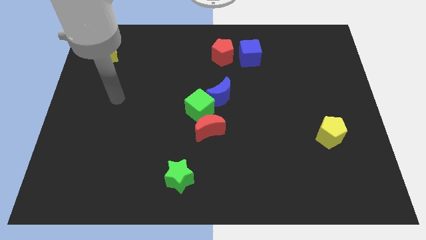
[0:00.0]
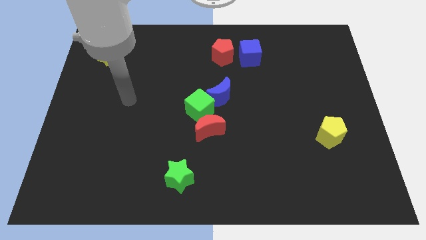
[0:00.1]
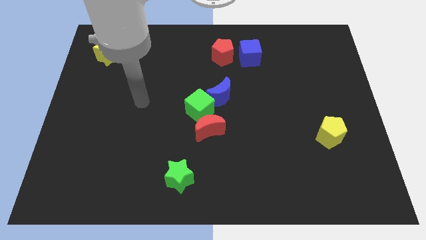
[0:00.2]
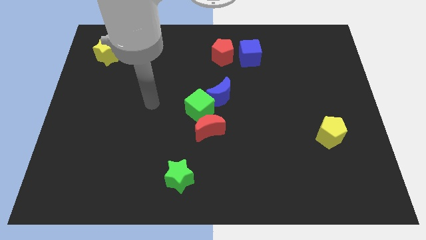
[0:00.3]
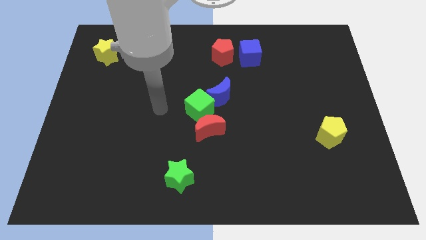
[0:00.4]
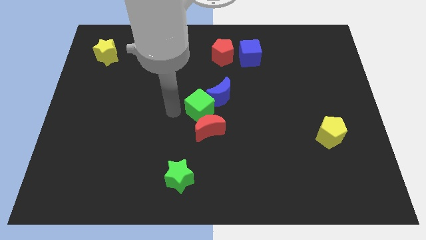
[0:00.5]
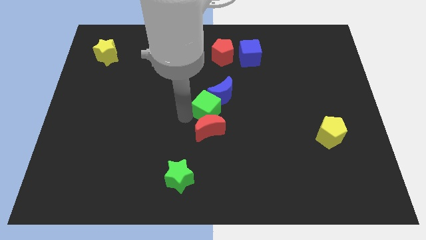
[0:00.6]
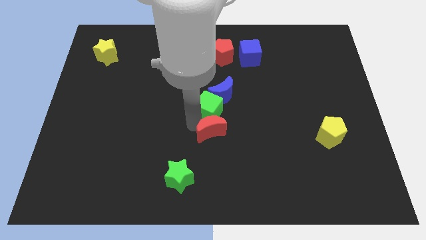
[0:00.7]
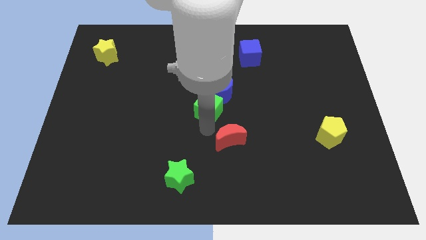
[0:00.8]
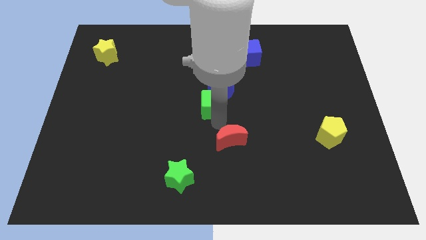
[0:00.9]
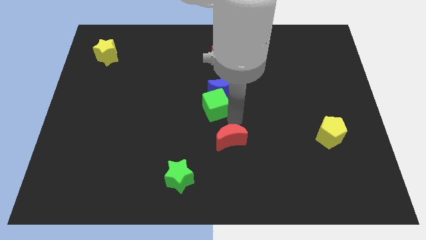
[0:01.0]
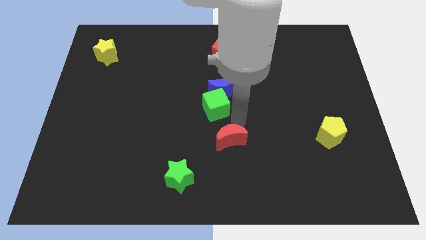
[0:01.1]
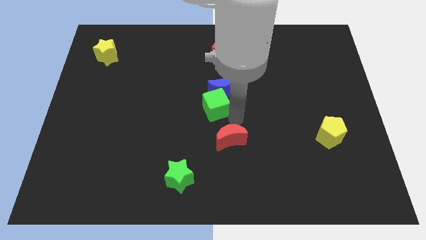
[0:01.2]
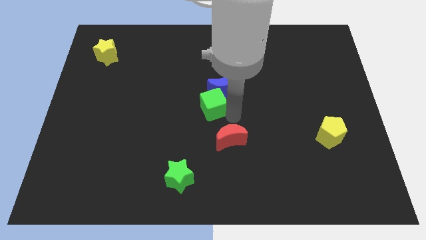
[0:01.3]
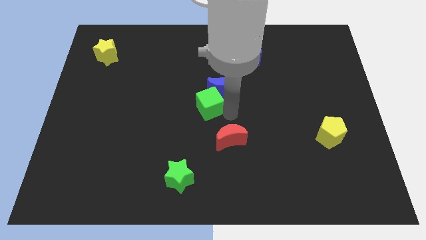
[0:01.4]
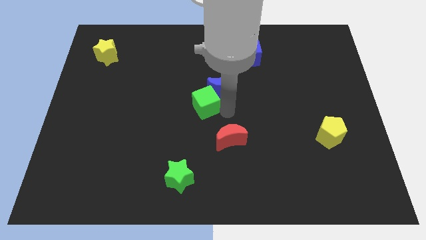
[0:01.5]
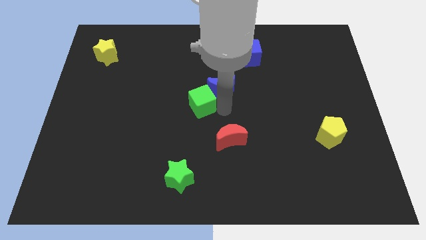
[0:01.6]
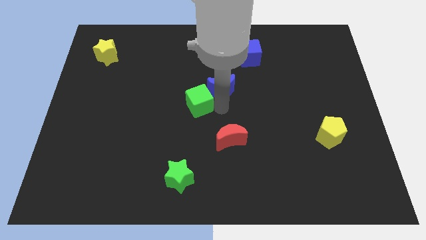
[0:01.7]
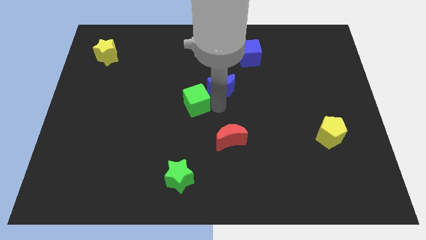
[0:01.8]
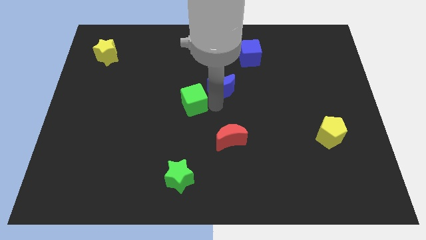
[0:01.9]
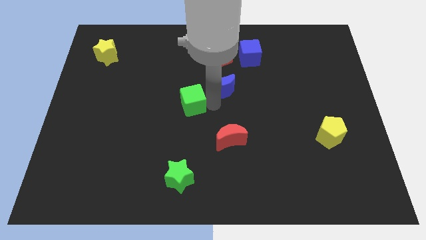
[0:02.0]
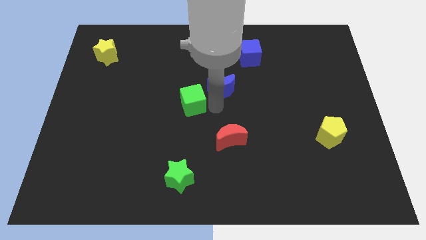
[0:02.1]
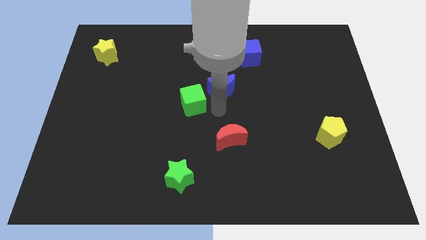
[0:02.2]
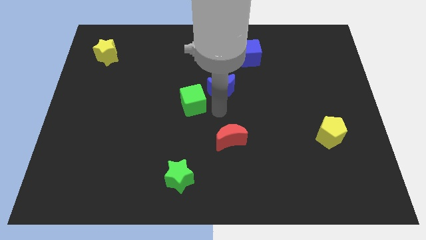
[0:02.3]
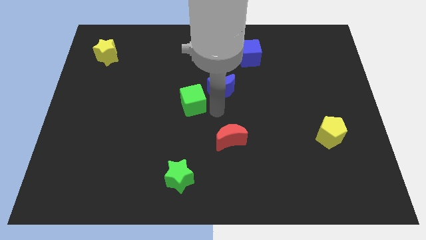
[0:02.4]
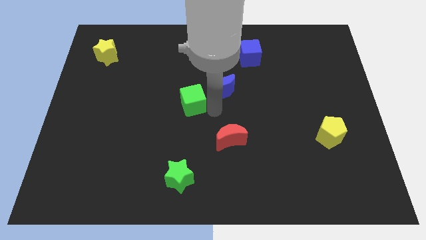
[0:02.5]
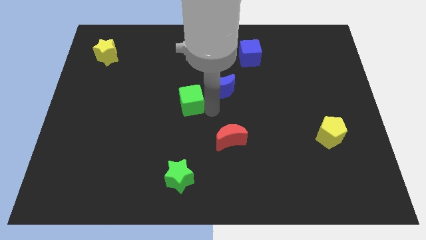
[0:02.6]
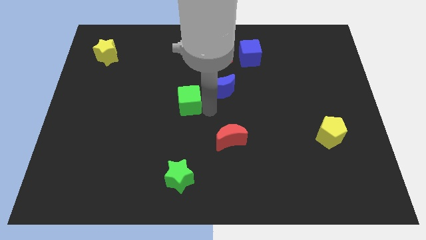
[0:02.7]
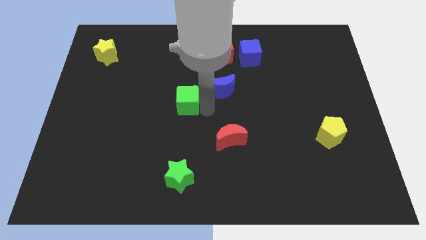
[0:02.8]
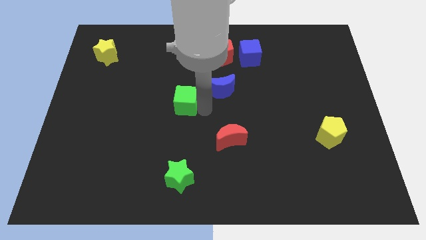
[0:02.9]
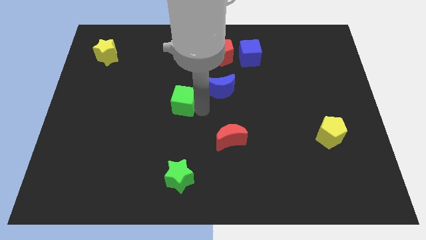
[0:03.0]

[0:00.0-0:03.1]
separate the green cube from the red moon and blue moon

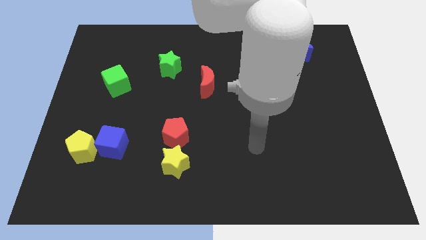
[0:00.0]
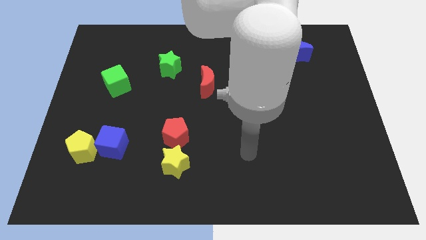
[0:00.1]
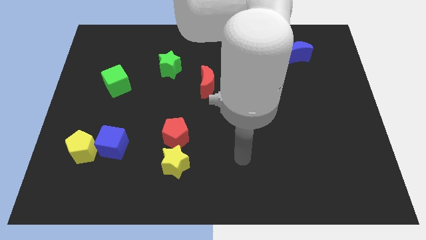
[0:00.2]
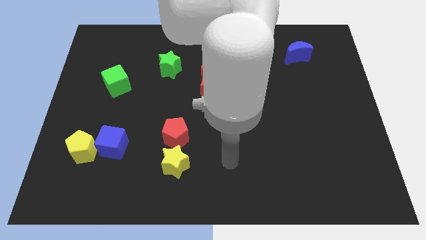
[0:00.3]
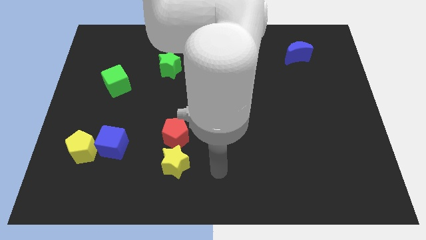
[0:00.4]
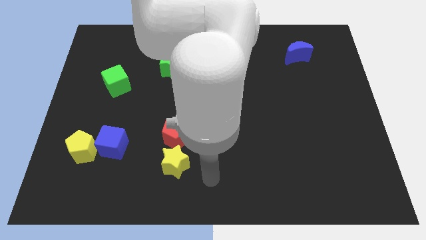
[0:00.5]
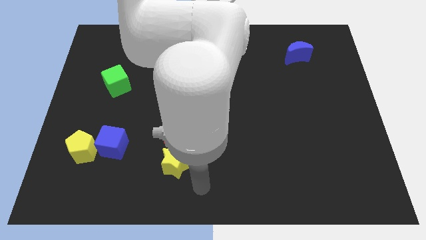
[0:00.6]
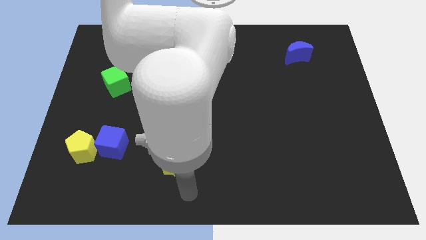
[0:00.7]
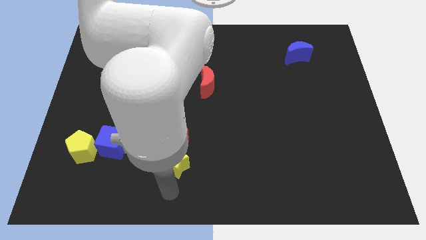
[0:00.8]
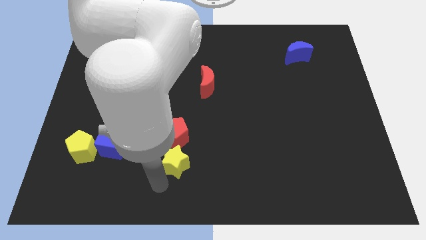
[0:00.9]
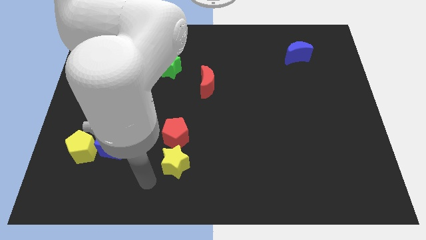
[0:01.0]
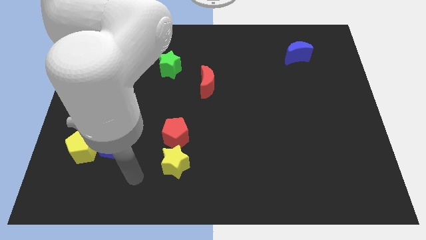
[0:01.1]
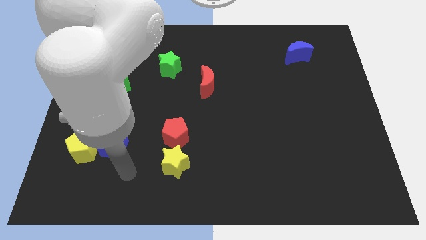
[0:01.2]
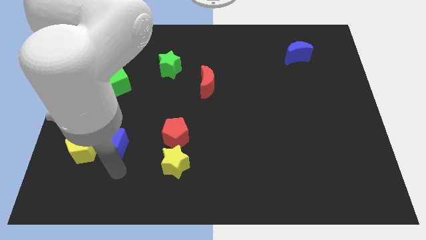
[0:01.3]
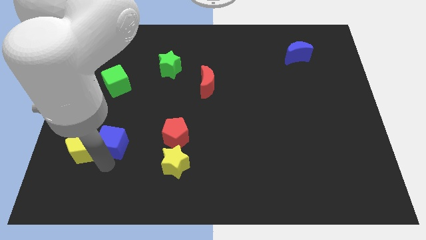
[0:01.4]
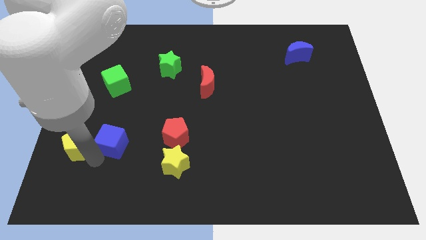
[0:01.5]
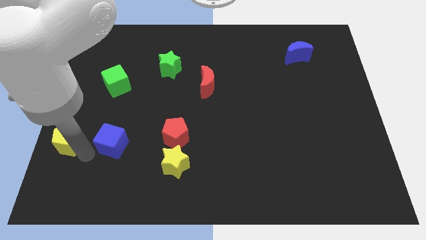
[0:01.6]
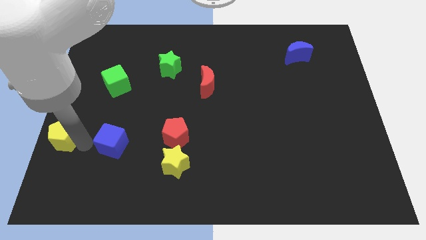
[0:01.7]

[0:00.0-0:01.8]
pull the blue cube apart from the yellow pentagon

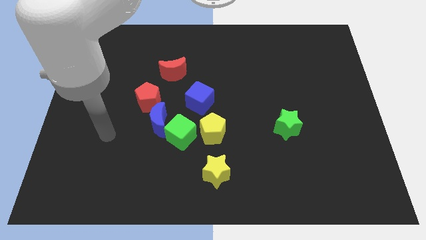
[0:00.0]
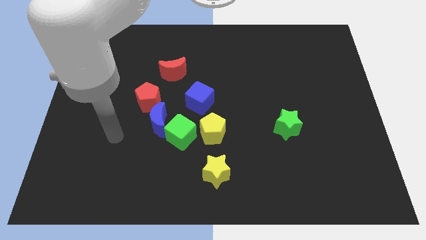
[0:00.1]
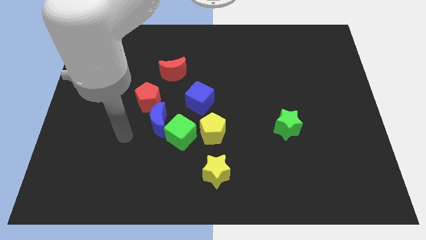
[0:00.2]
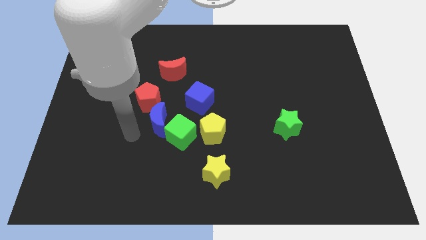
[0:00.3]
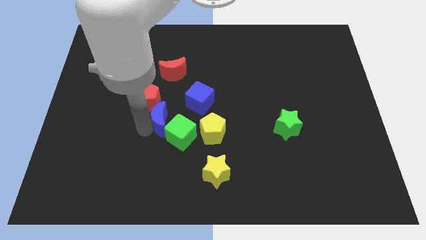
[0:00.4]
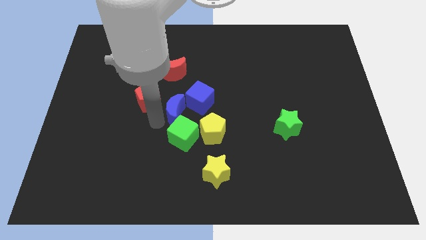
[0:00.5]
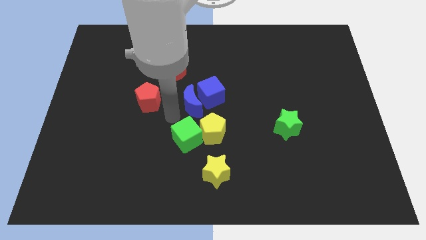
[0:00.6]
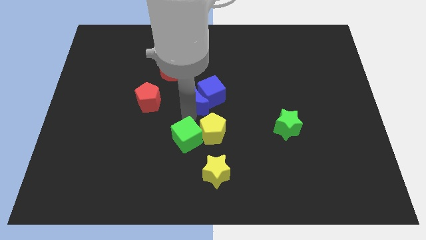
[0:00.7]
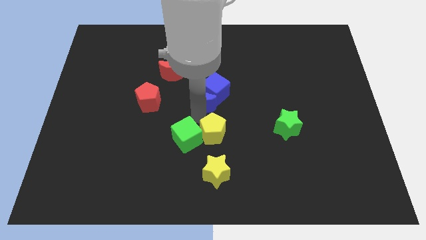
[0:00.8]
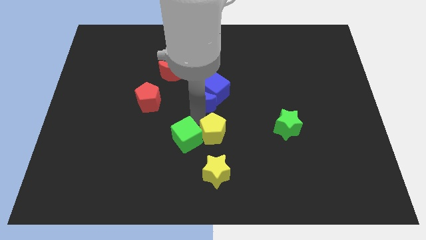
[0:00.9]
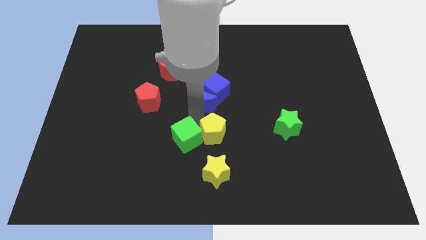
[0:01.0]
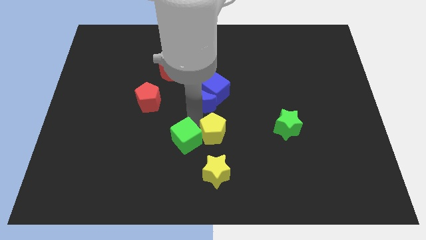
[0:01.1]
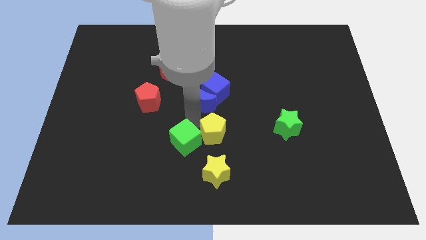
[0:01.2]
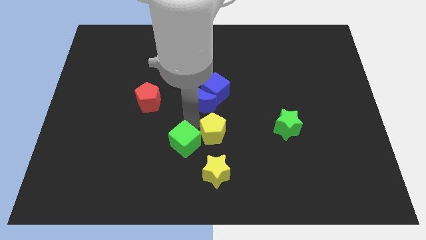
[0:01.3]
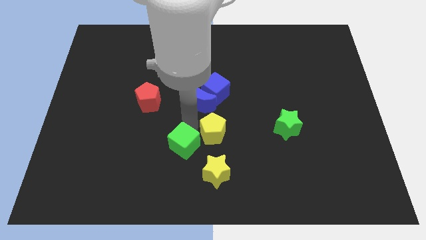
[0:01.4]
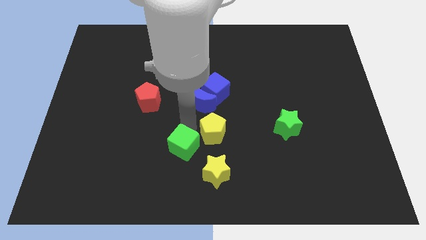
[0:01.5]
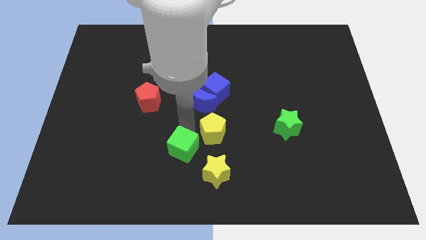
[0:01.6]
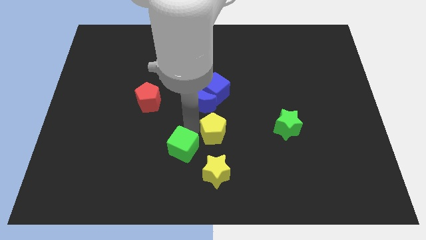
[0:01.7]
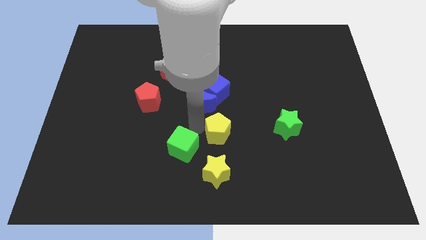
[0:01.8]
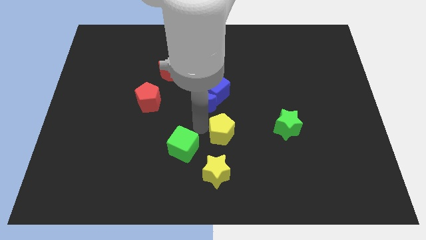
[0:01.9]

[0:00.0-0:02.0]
move the green cube away from the blue moon and yellow pentagon

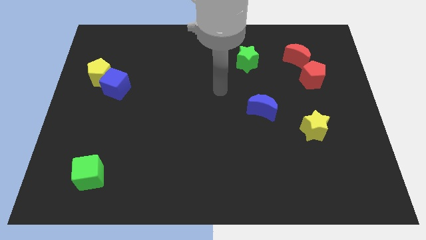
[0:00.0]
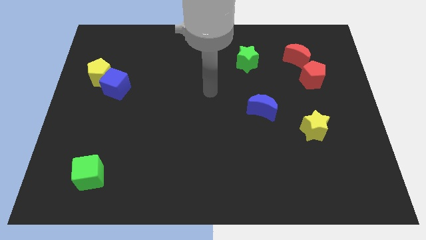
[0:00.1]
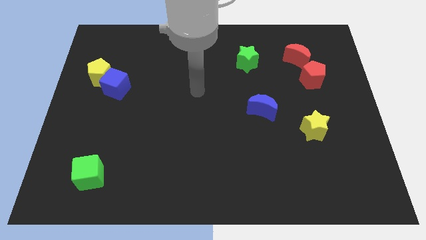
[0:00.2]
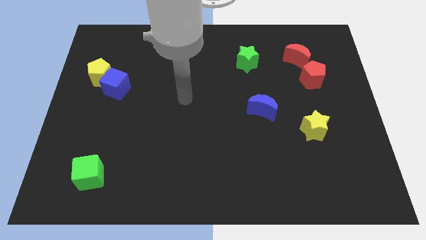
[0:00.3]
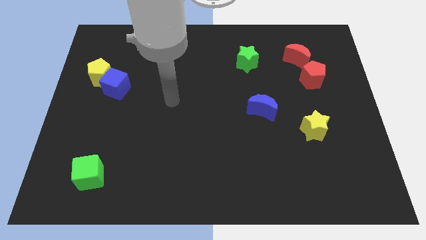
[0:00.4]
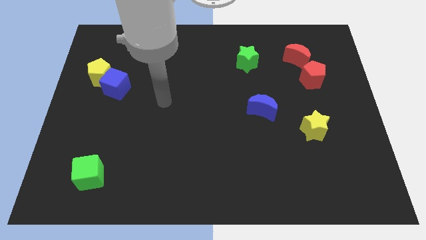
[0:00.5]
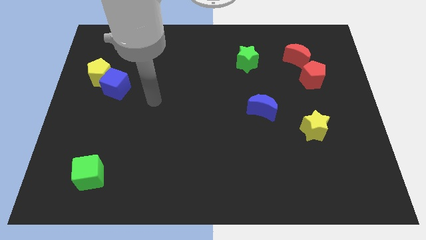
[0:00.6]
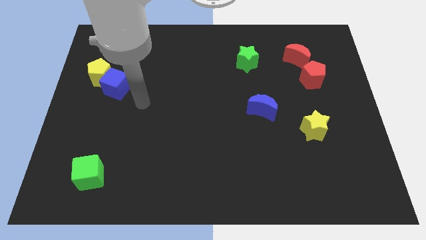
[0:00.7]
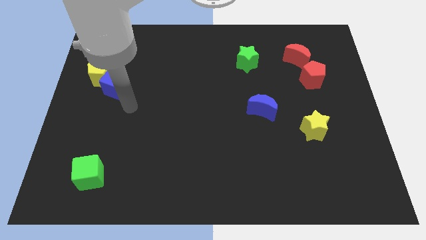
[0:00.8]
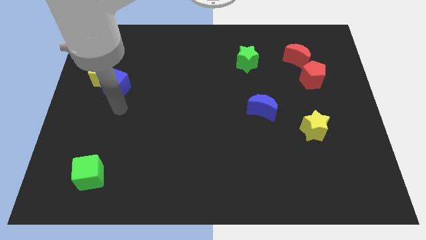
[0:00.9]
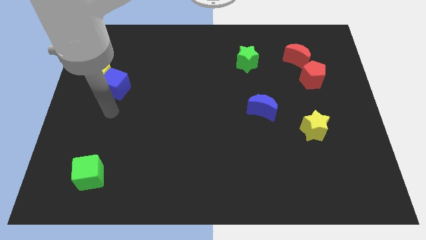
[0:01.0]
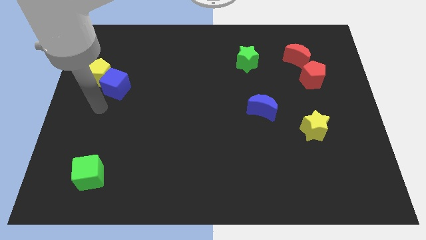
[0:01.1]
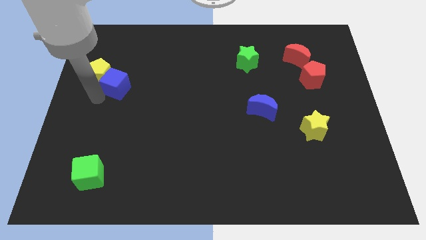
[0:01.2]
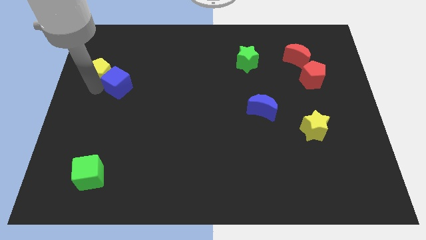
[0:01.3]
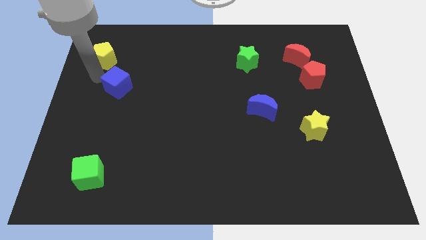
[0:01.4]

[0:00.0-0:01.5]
move the blue cube away from the yellow pentagon

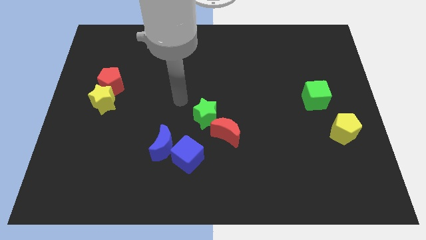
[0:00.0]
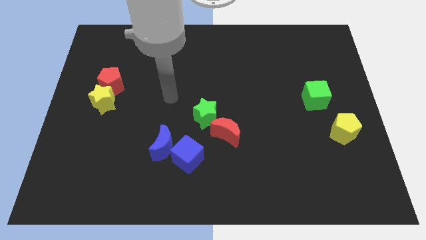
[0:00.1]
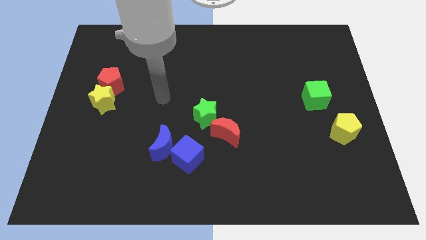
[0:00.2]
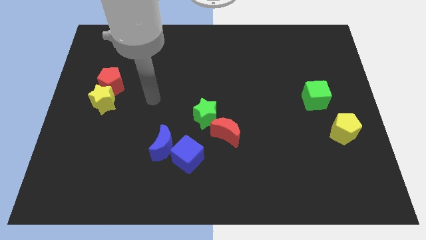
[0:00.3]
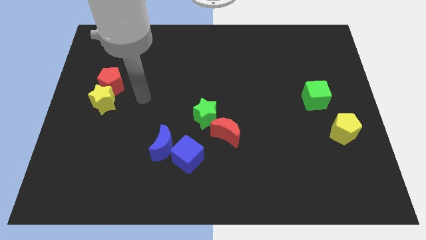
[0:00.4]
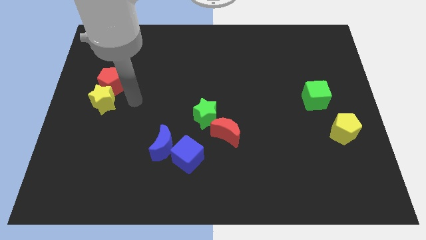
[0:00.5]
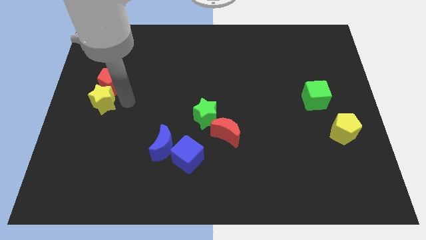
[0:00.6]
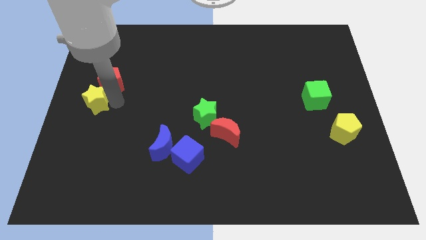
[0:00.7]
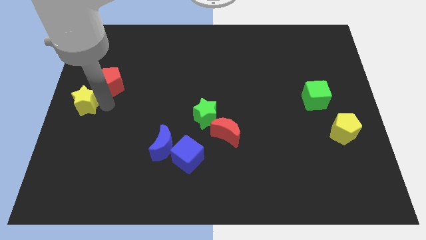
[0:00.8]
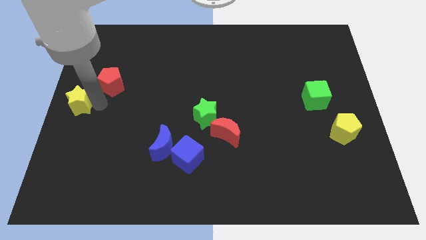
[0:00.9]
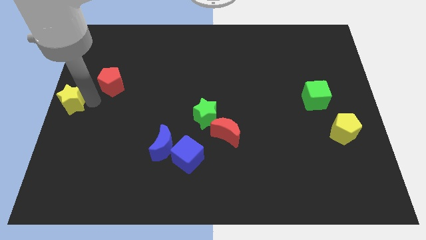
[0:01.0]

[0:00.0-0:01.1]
pull the red pentagon apart from the yellow star
